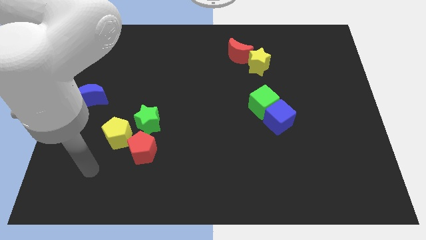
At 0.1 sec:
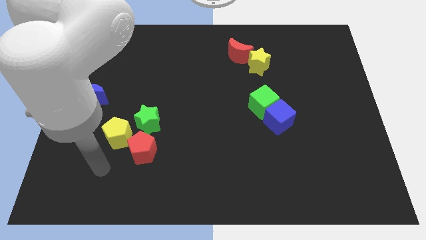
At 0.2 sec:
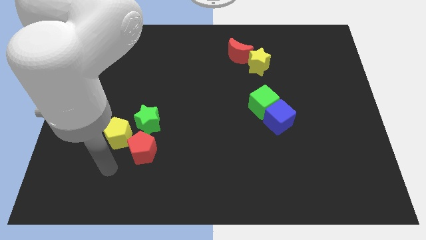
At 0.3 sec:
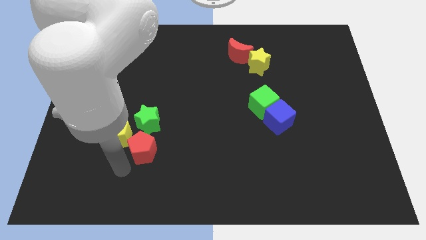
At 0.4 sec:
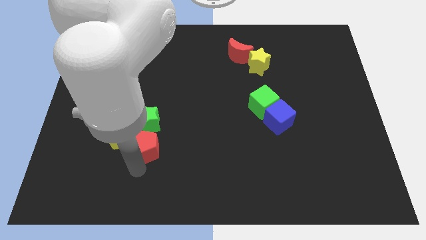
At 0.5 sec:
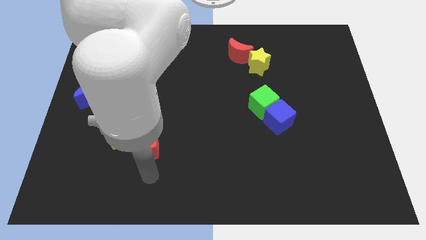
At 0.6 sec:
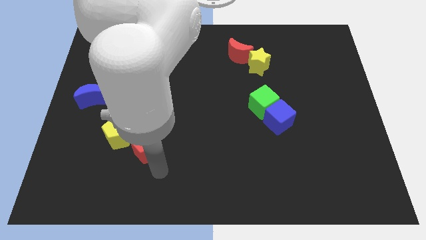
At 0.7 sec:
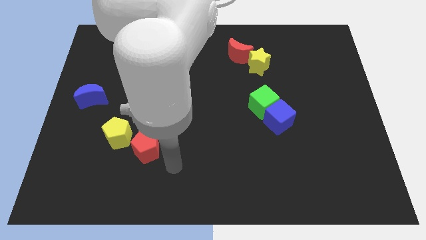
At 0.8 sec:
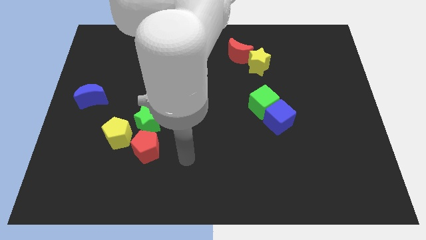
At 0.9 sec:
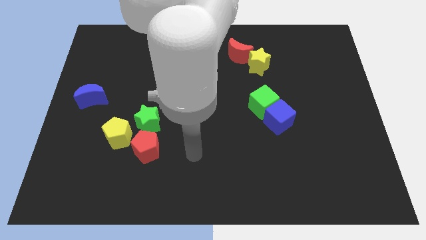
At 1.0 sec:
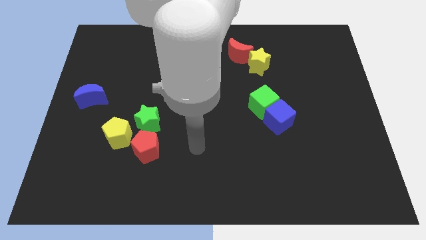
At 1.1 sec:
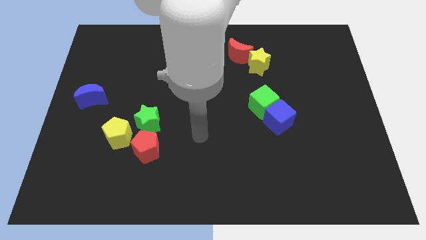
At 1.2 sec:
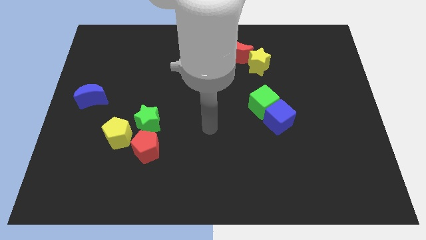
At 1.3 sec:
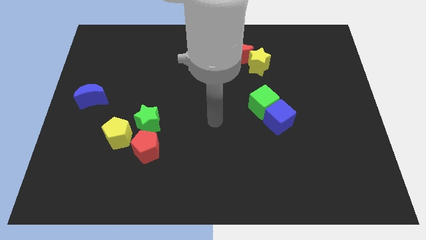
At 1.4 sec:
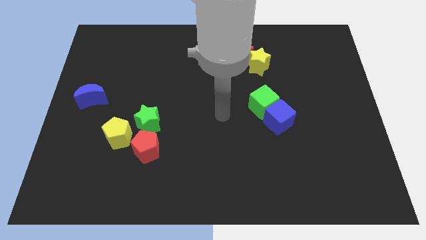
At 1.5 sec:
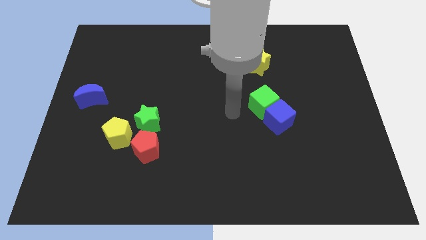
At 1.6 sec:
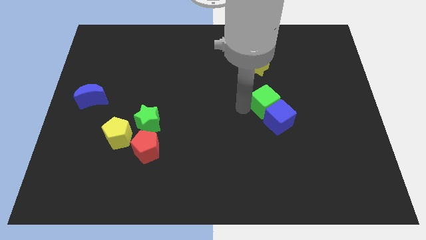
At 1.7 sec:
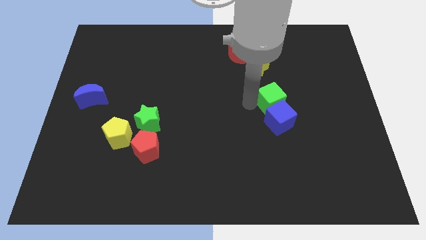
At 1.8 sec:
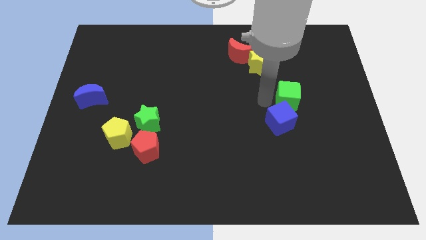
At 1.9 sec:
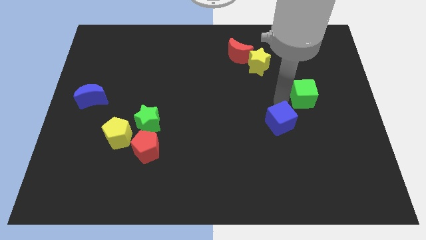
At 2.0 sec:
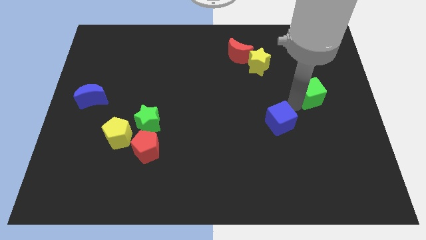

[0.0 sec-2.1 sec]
pull the blue cube apart from the green cube

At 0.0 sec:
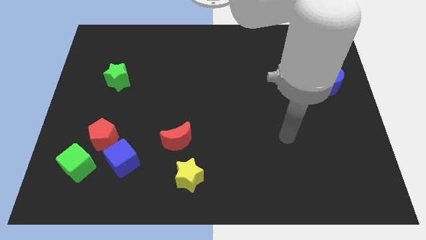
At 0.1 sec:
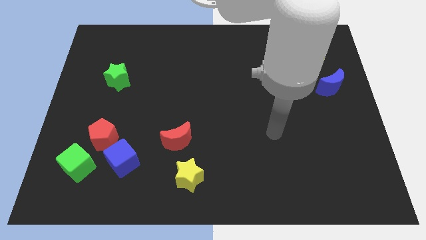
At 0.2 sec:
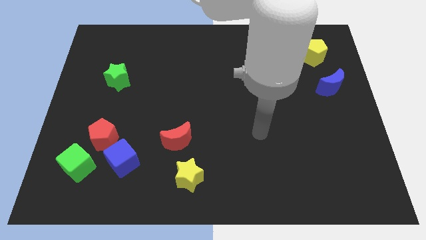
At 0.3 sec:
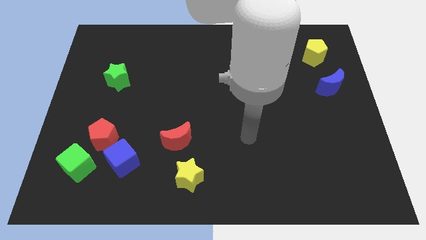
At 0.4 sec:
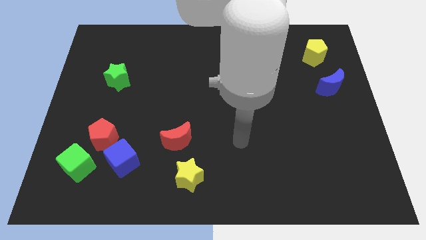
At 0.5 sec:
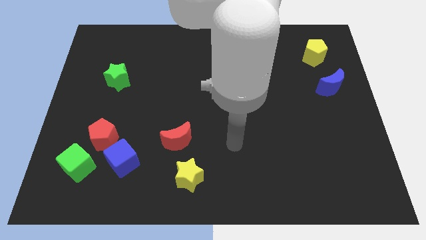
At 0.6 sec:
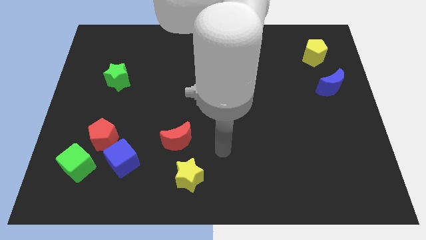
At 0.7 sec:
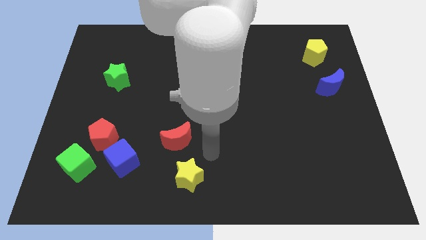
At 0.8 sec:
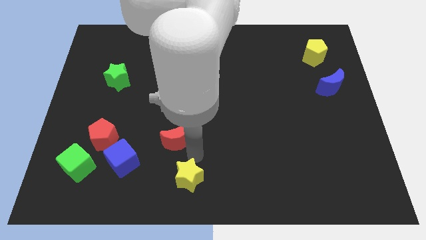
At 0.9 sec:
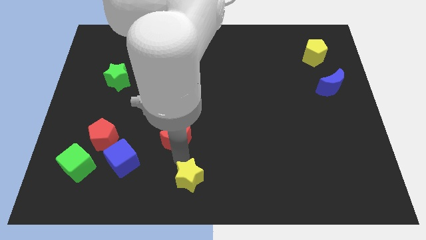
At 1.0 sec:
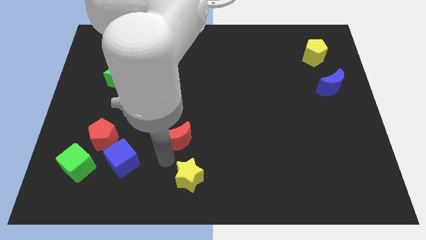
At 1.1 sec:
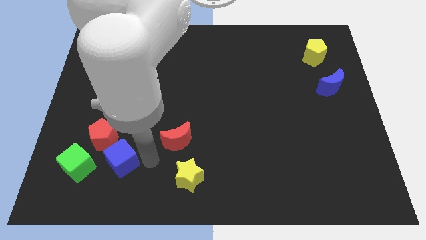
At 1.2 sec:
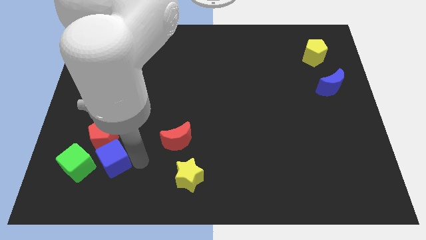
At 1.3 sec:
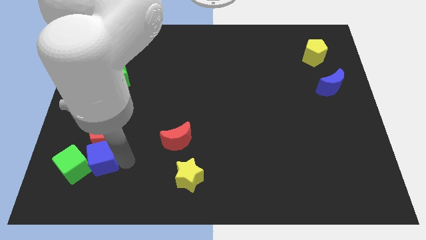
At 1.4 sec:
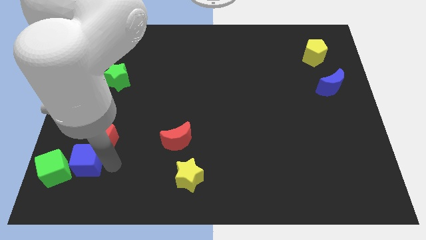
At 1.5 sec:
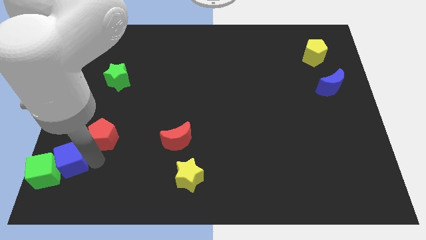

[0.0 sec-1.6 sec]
move the red pentagon away from the blue cube and green cube

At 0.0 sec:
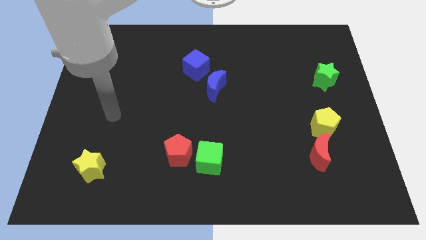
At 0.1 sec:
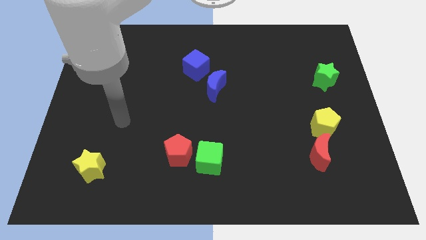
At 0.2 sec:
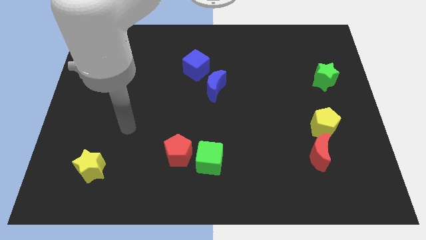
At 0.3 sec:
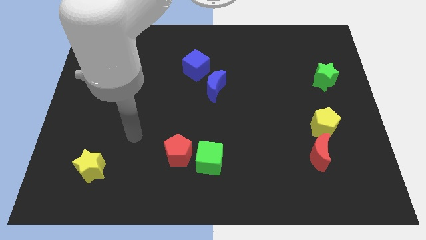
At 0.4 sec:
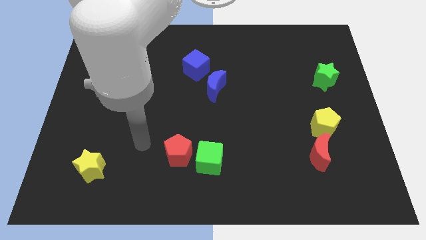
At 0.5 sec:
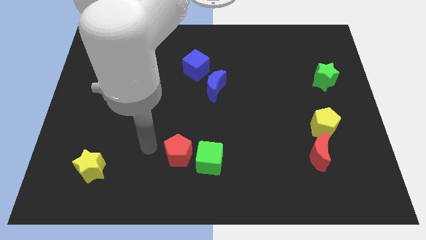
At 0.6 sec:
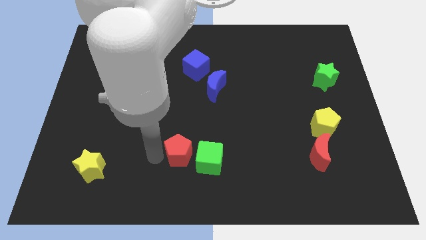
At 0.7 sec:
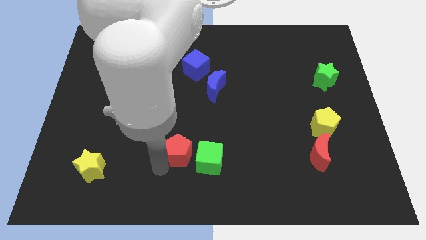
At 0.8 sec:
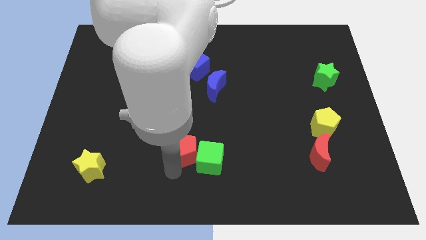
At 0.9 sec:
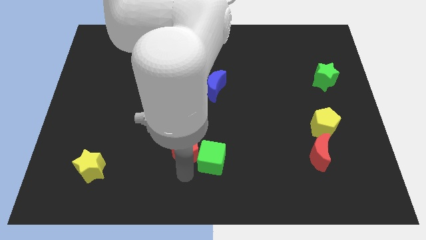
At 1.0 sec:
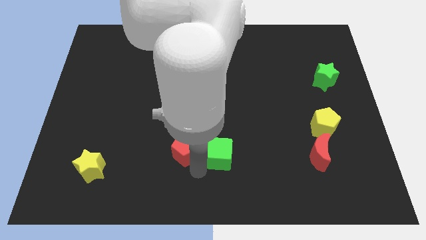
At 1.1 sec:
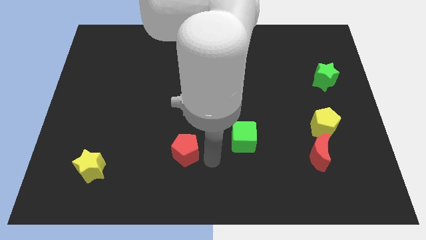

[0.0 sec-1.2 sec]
pull the red pentagon apart from the green cube

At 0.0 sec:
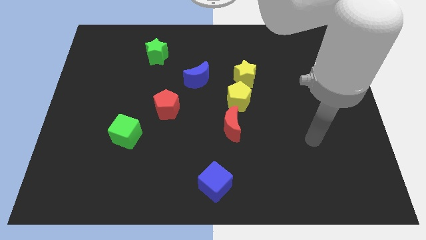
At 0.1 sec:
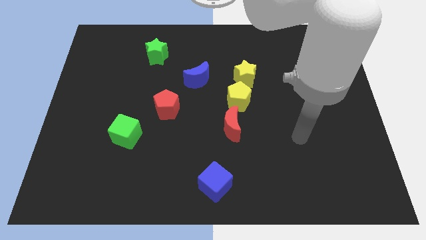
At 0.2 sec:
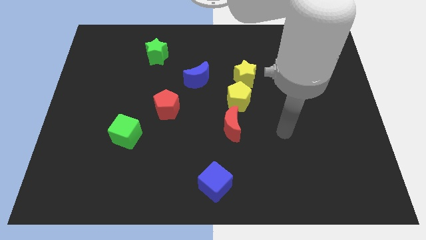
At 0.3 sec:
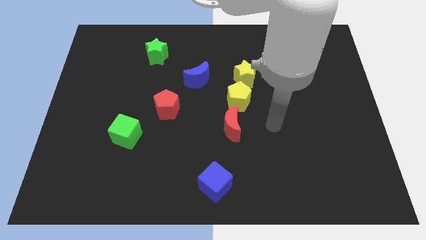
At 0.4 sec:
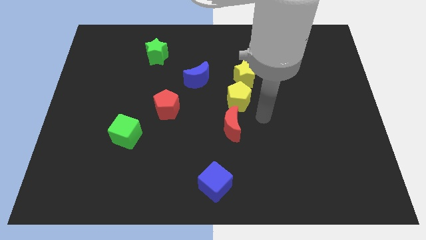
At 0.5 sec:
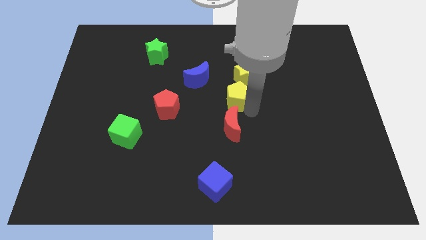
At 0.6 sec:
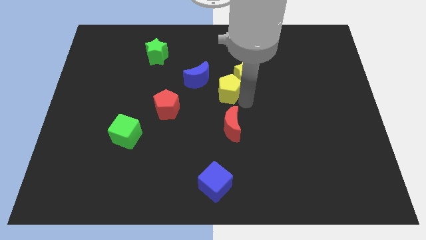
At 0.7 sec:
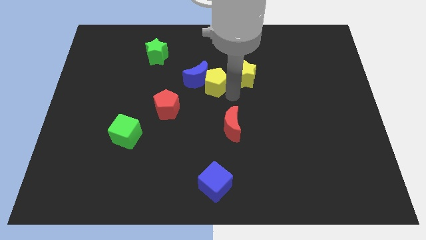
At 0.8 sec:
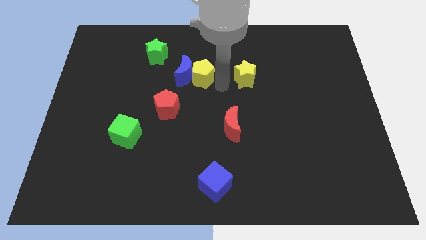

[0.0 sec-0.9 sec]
pull the yellow star apart from the yellow pentagon

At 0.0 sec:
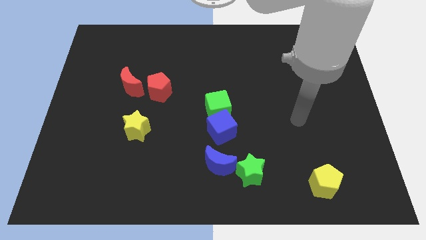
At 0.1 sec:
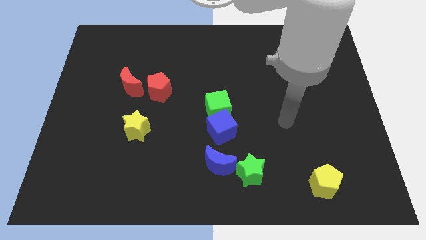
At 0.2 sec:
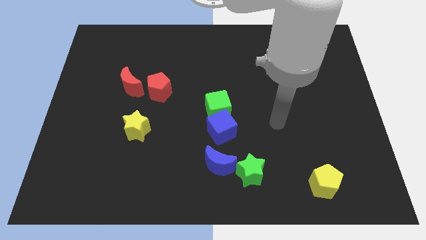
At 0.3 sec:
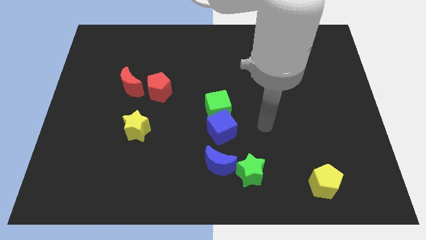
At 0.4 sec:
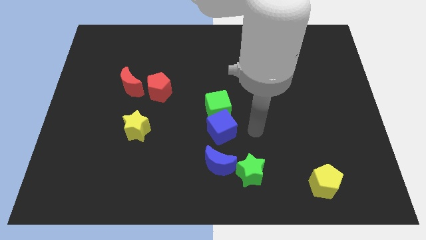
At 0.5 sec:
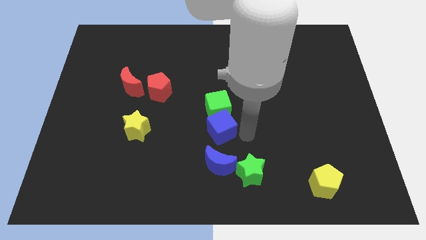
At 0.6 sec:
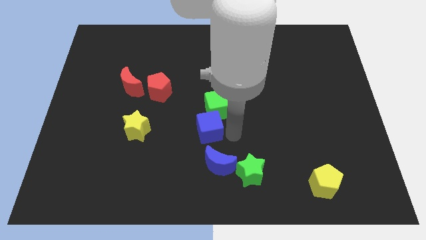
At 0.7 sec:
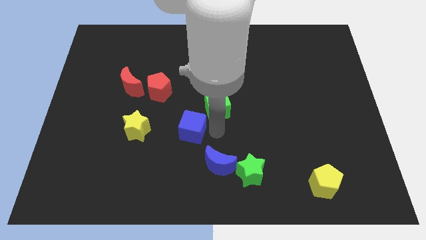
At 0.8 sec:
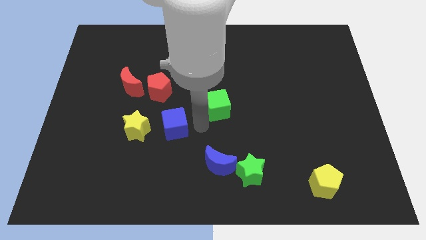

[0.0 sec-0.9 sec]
separate the green cube from the blue cube

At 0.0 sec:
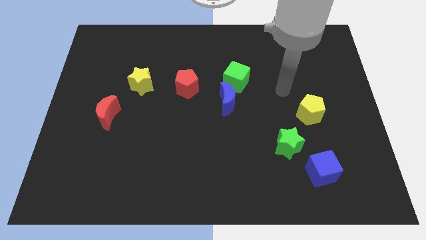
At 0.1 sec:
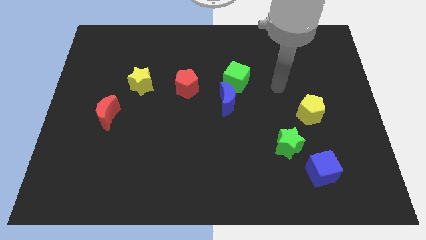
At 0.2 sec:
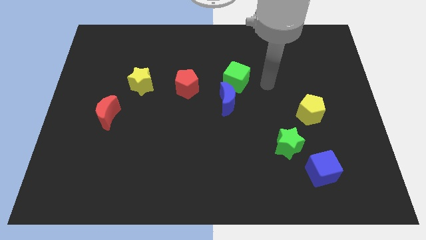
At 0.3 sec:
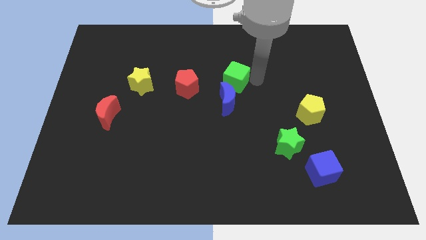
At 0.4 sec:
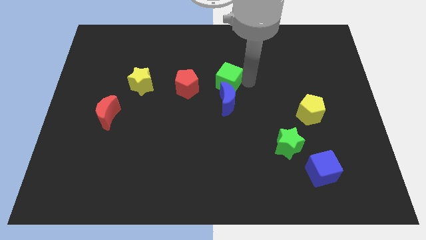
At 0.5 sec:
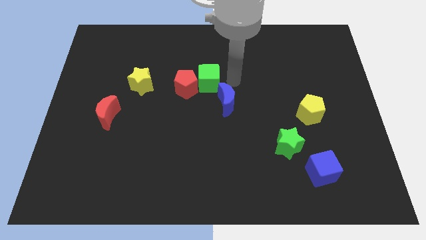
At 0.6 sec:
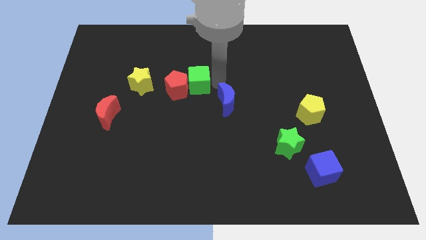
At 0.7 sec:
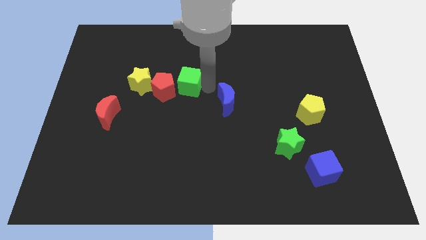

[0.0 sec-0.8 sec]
move the blue moon away from the green cube

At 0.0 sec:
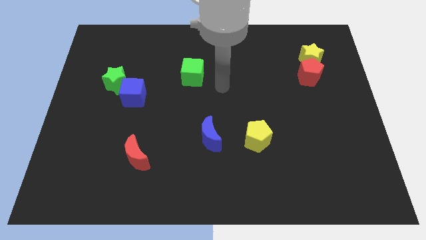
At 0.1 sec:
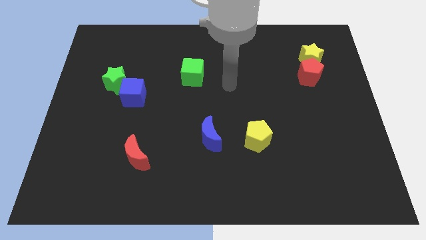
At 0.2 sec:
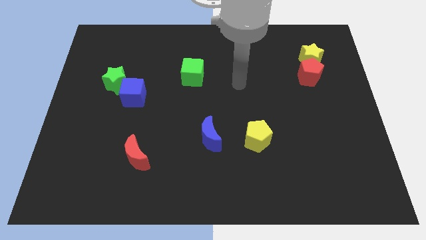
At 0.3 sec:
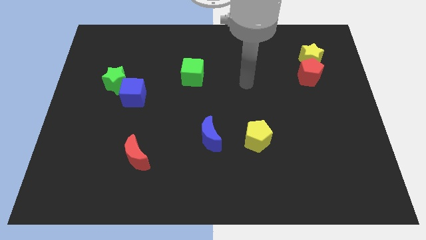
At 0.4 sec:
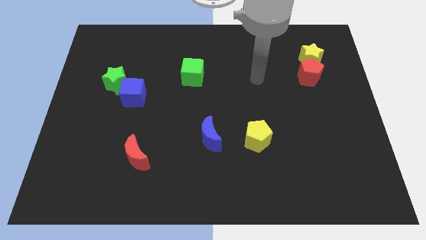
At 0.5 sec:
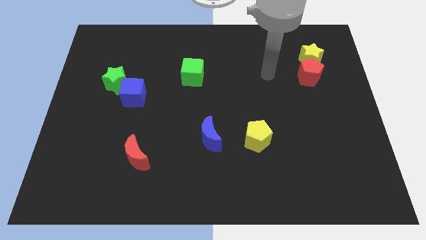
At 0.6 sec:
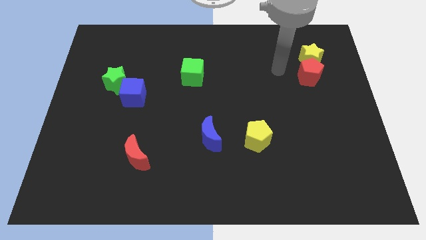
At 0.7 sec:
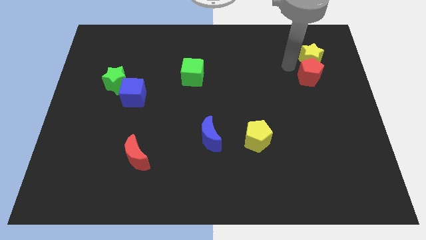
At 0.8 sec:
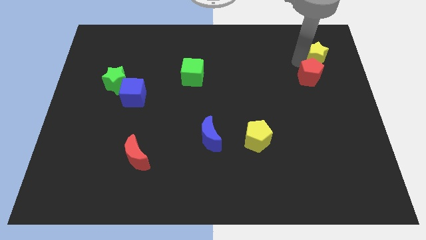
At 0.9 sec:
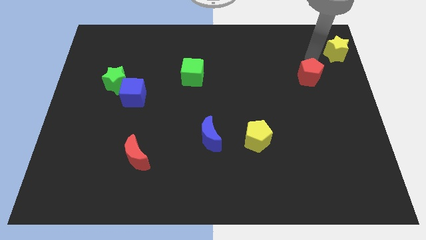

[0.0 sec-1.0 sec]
separate the red pentagon from the yellow star

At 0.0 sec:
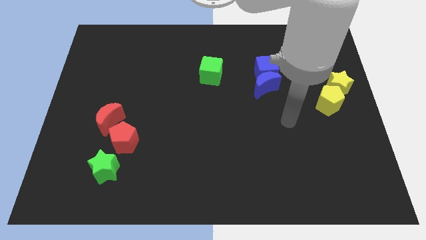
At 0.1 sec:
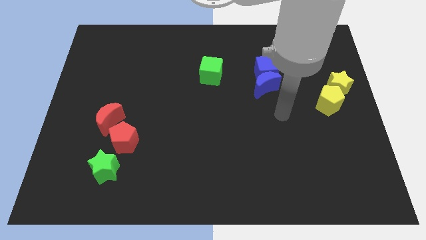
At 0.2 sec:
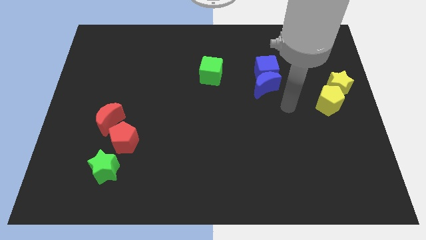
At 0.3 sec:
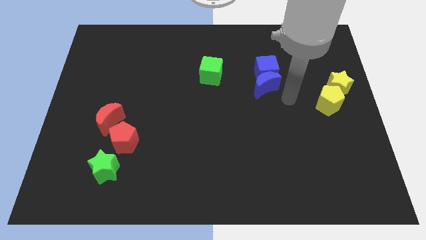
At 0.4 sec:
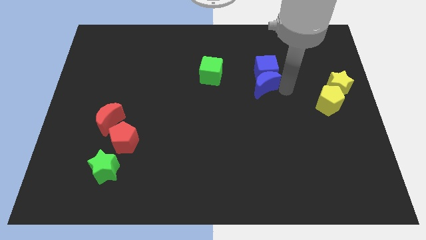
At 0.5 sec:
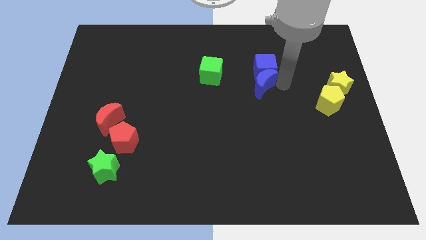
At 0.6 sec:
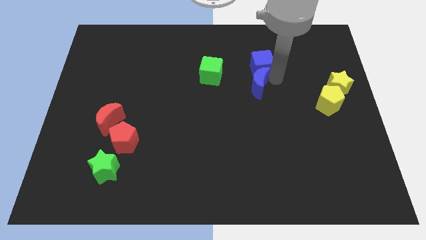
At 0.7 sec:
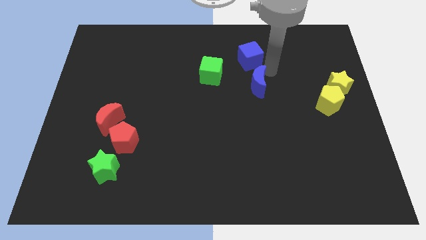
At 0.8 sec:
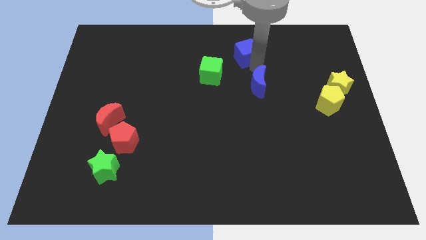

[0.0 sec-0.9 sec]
separate the blue moon from the blue cube
